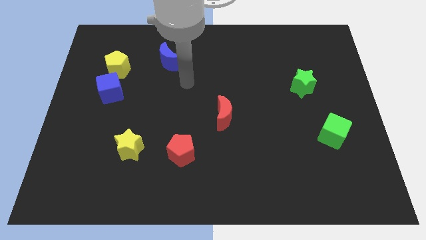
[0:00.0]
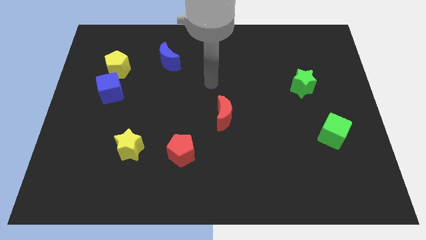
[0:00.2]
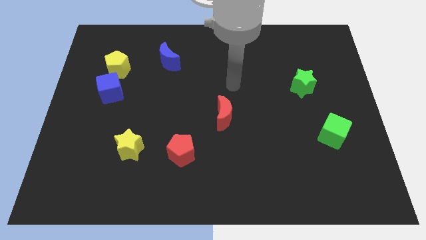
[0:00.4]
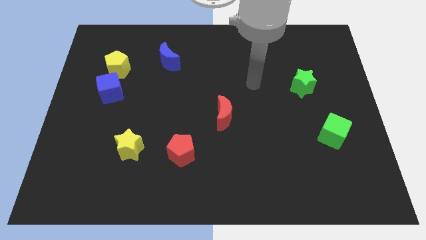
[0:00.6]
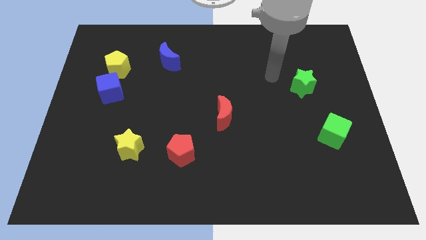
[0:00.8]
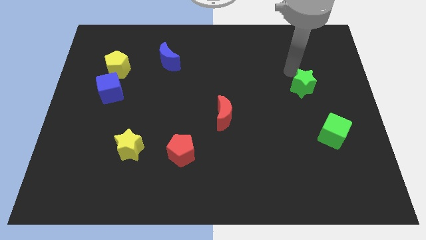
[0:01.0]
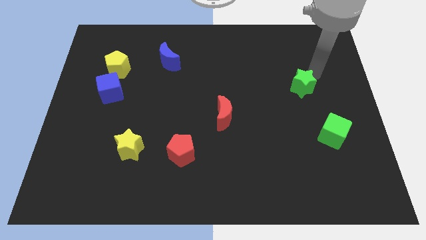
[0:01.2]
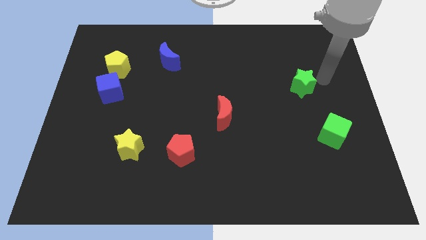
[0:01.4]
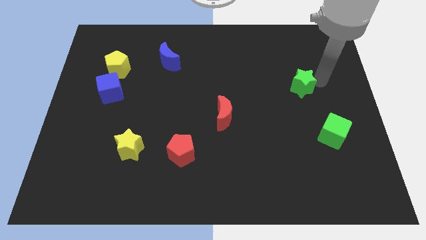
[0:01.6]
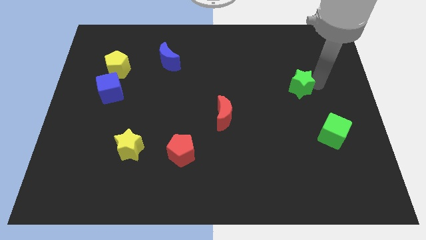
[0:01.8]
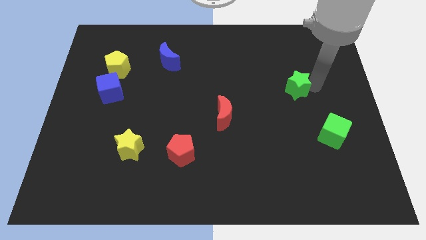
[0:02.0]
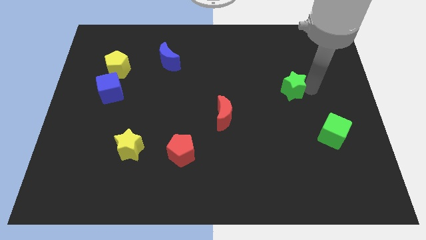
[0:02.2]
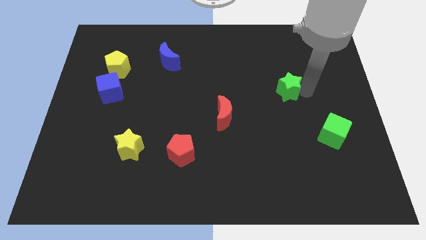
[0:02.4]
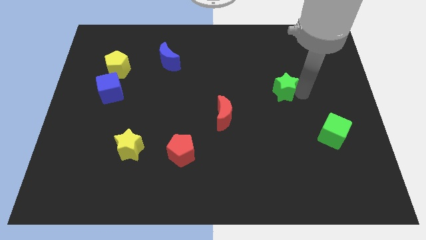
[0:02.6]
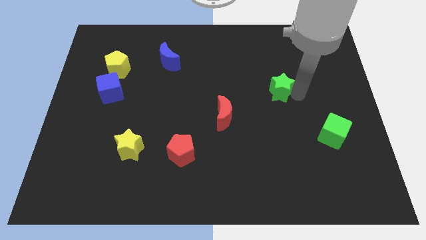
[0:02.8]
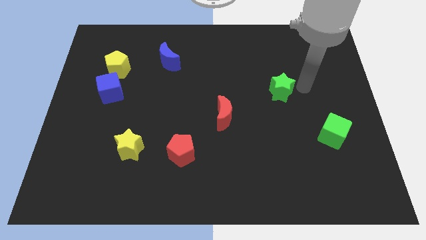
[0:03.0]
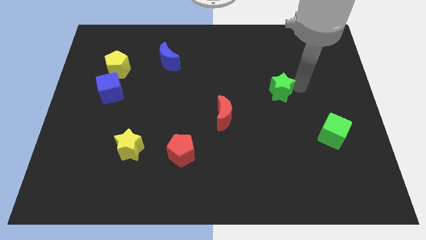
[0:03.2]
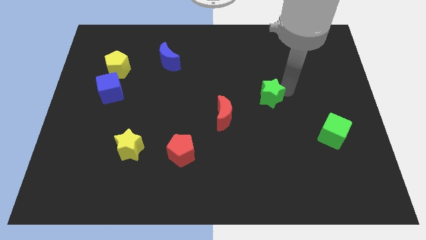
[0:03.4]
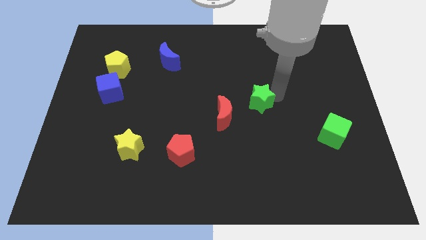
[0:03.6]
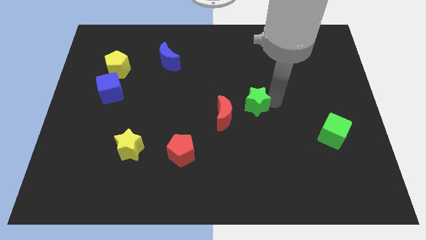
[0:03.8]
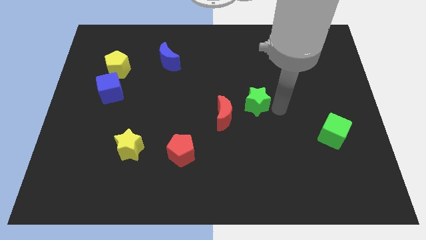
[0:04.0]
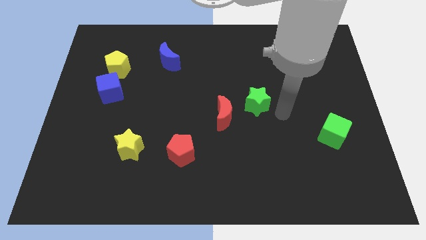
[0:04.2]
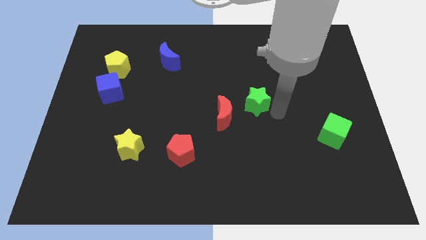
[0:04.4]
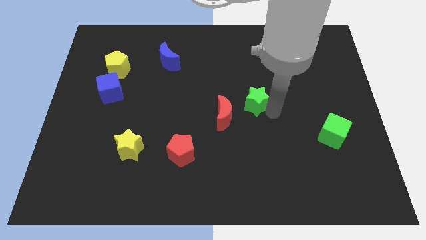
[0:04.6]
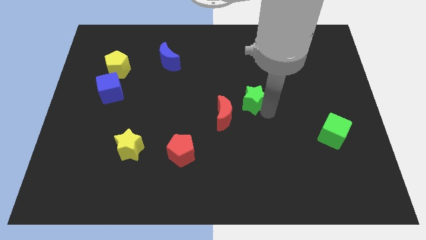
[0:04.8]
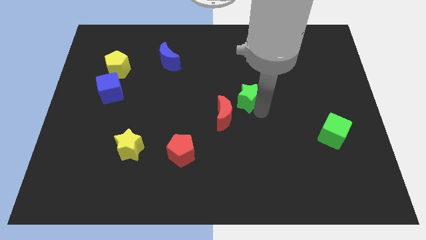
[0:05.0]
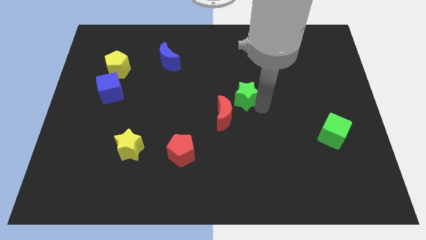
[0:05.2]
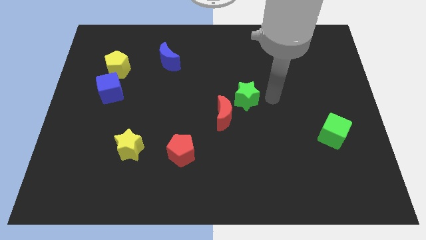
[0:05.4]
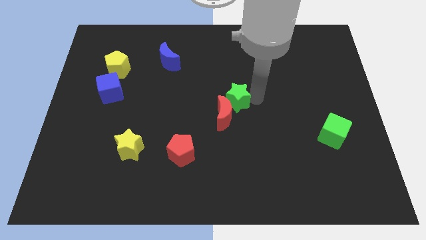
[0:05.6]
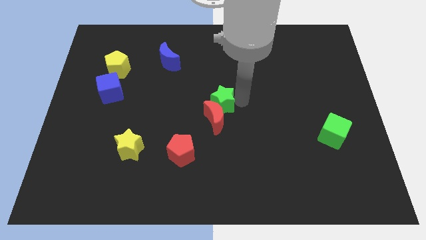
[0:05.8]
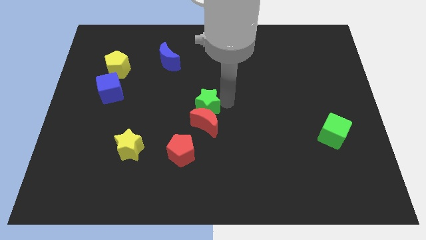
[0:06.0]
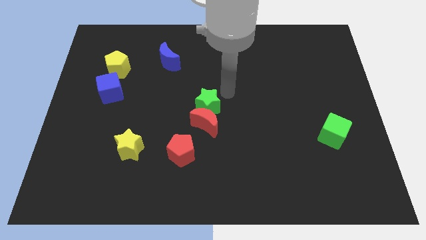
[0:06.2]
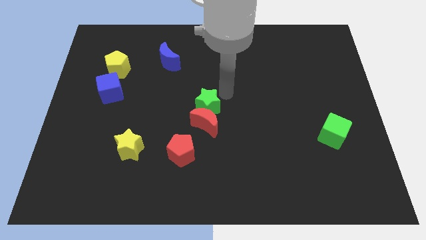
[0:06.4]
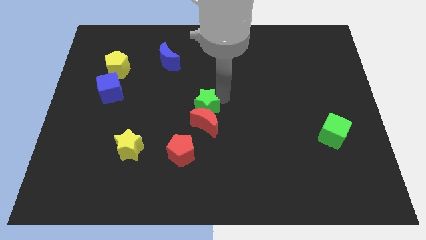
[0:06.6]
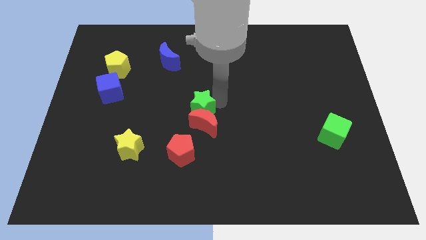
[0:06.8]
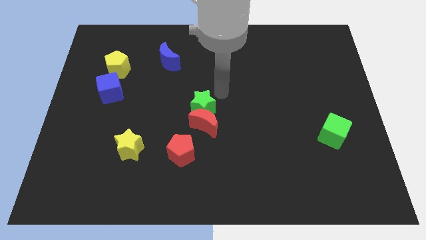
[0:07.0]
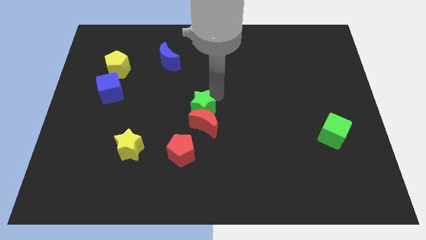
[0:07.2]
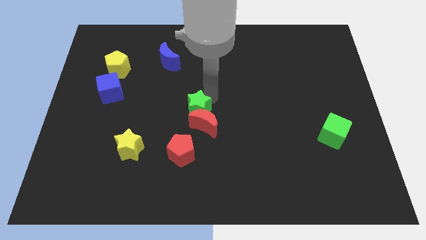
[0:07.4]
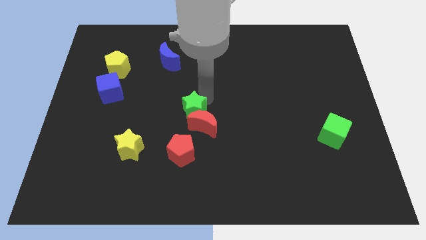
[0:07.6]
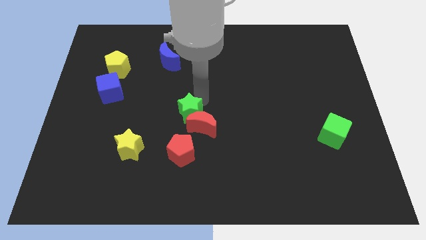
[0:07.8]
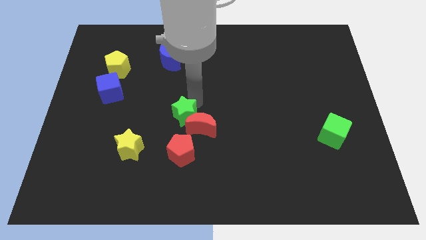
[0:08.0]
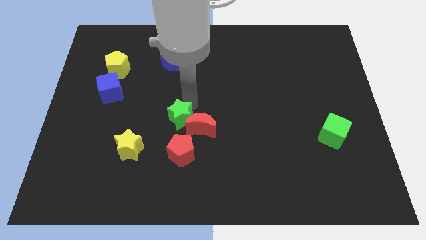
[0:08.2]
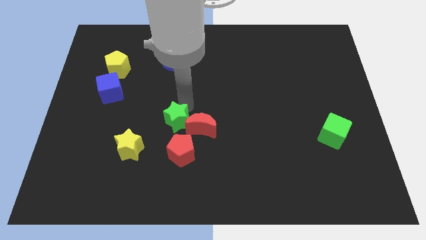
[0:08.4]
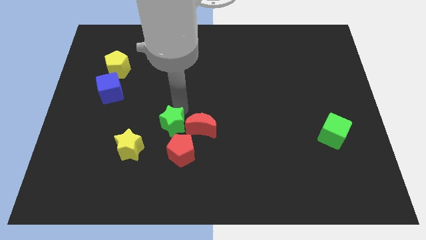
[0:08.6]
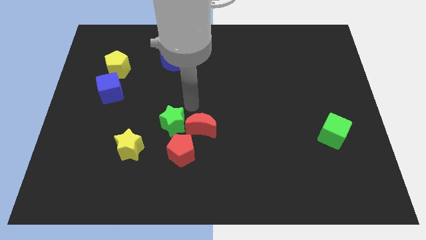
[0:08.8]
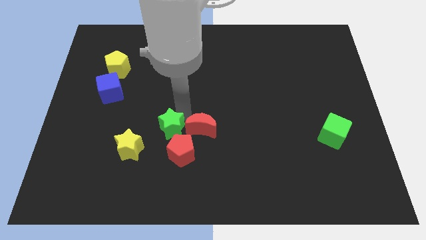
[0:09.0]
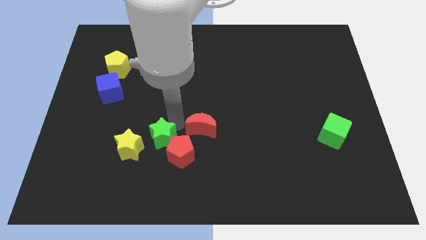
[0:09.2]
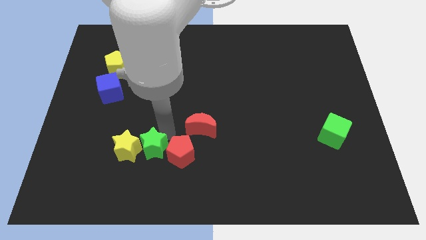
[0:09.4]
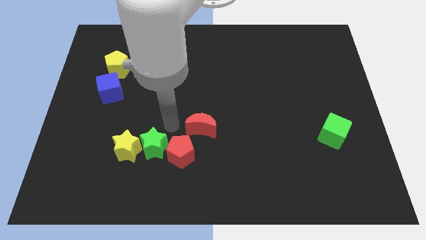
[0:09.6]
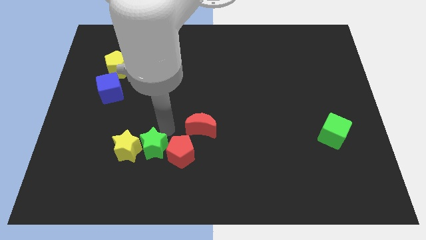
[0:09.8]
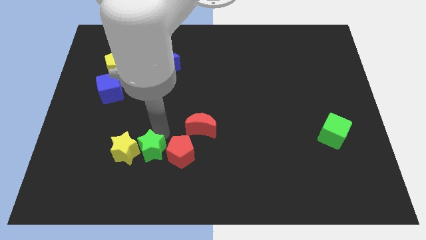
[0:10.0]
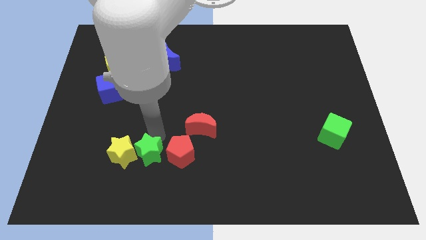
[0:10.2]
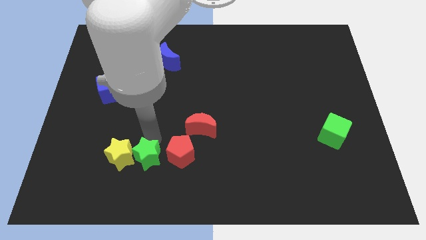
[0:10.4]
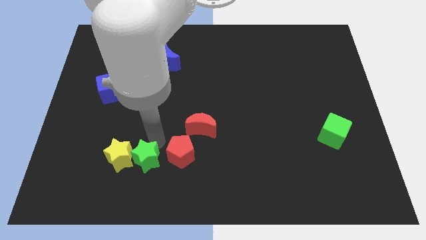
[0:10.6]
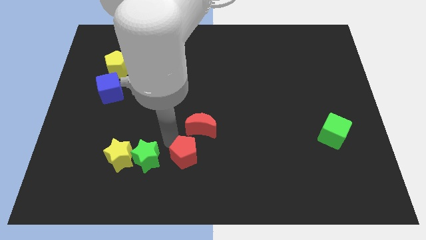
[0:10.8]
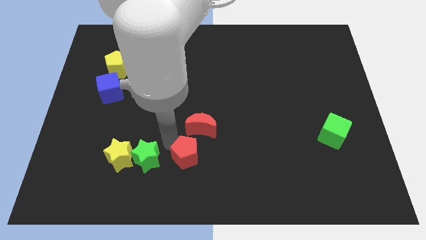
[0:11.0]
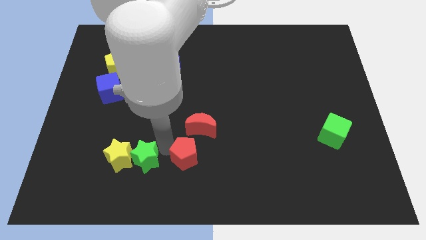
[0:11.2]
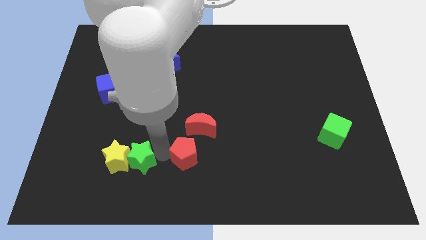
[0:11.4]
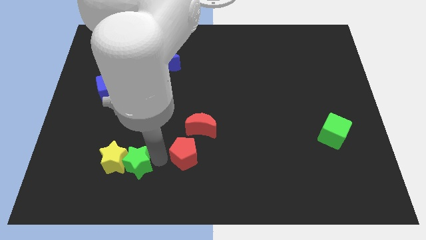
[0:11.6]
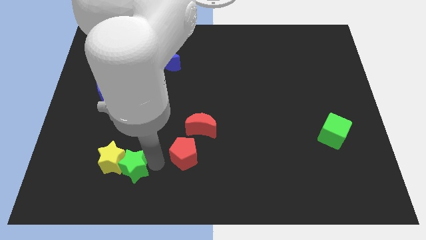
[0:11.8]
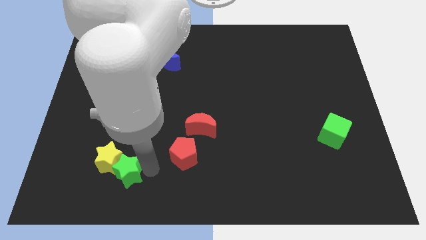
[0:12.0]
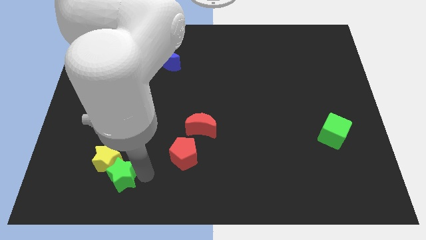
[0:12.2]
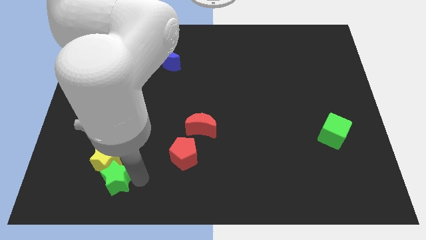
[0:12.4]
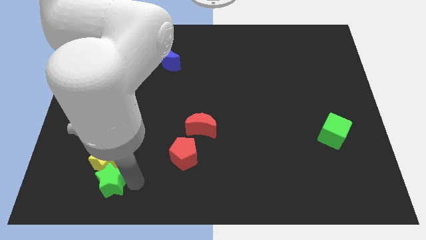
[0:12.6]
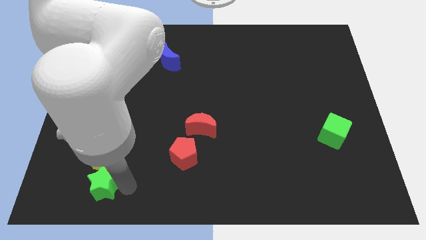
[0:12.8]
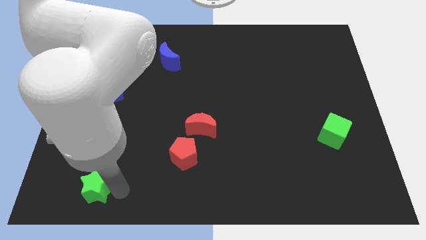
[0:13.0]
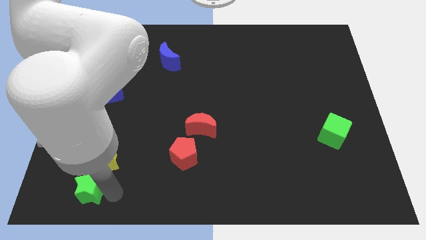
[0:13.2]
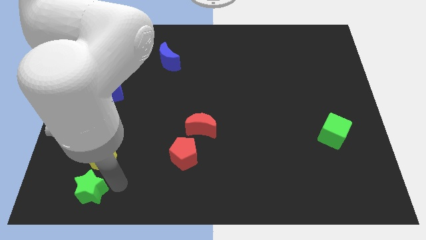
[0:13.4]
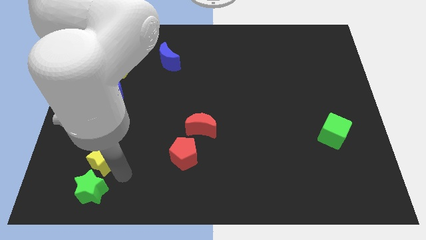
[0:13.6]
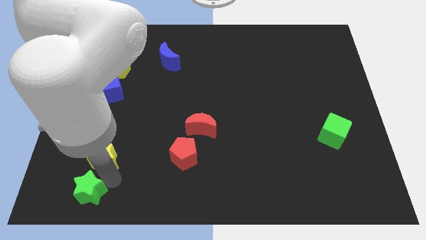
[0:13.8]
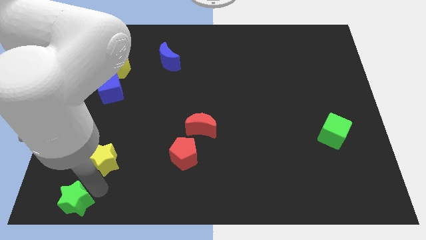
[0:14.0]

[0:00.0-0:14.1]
put the green star to the lower left corner
